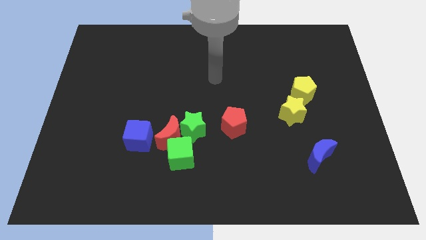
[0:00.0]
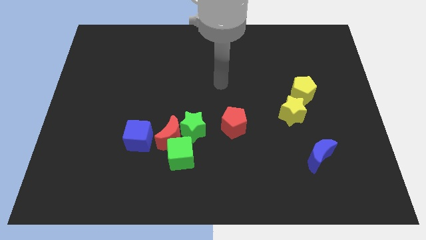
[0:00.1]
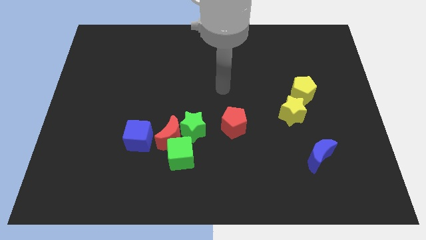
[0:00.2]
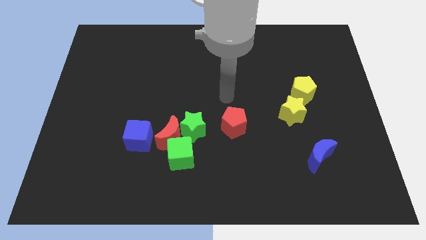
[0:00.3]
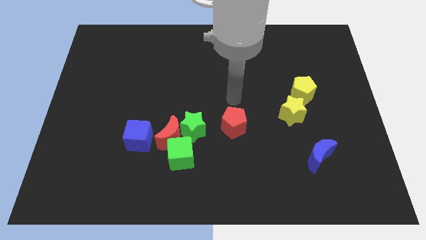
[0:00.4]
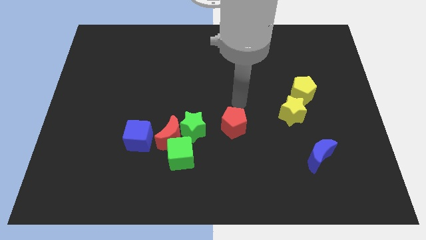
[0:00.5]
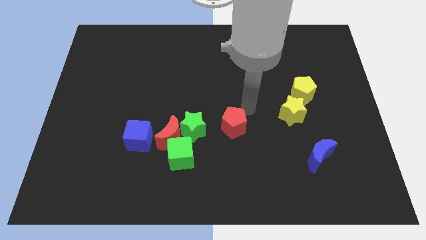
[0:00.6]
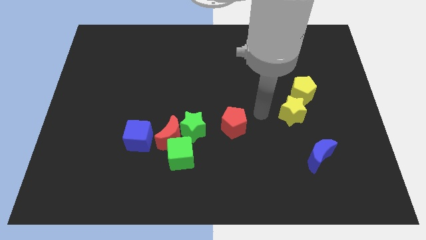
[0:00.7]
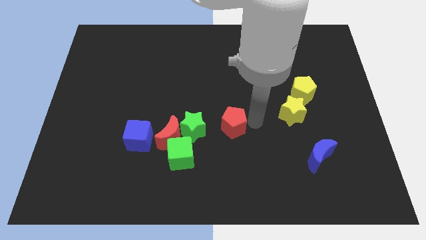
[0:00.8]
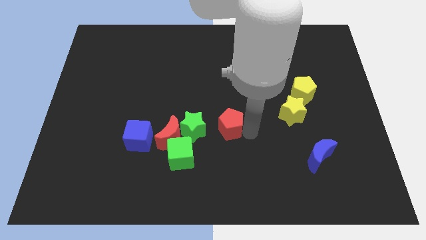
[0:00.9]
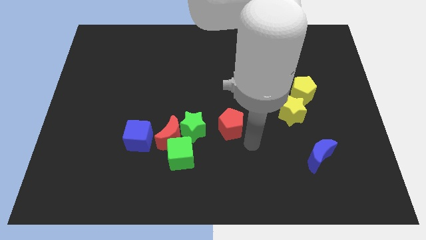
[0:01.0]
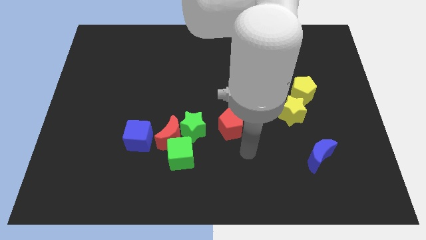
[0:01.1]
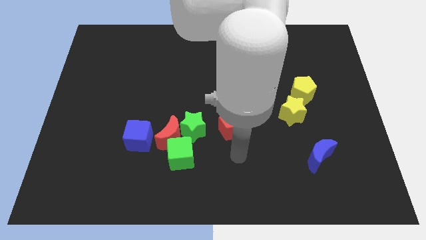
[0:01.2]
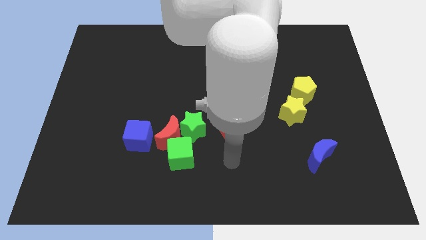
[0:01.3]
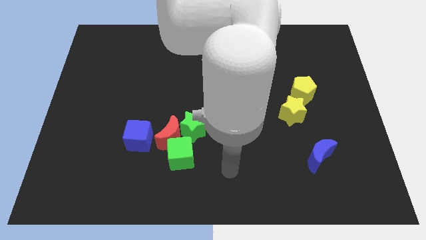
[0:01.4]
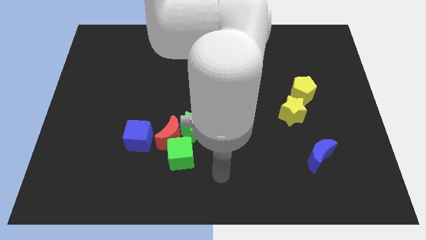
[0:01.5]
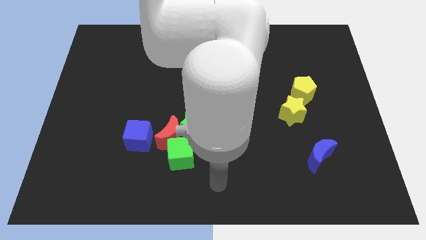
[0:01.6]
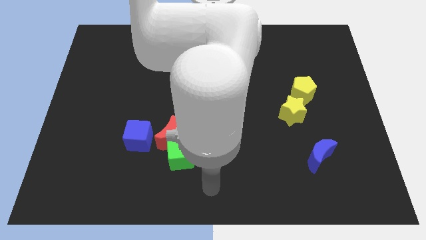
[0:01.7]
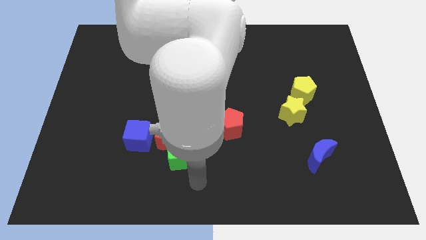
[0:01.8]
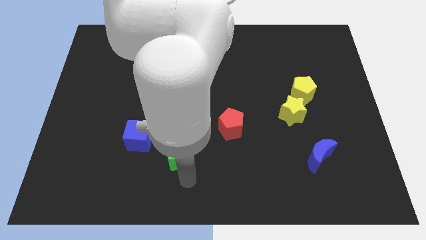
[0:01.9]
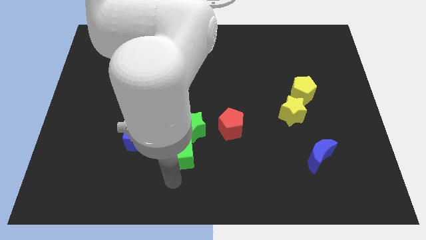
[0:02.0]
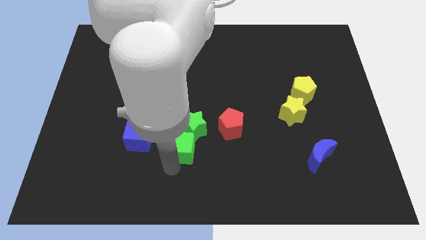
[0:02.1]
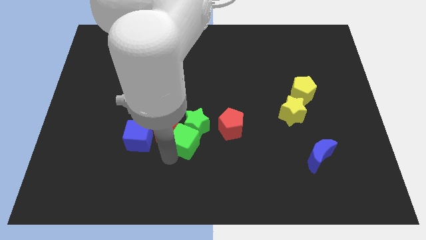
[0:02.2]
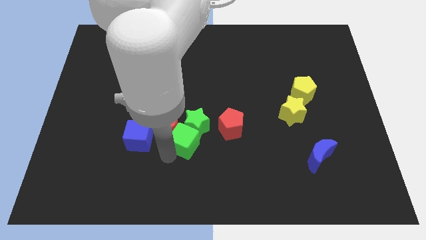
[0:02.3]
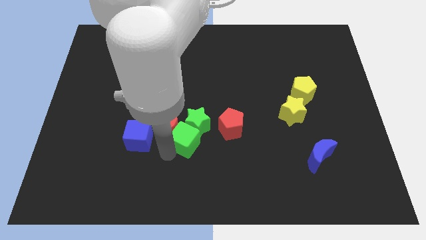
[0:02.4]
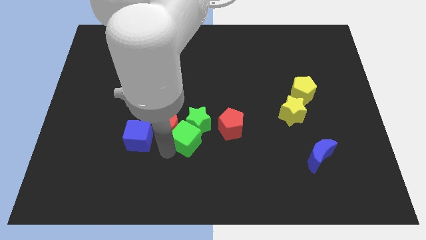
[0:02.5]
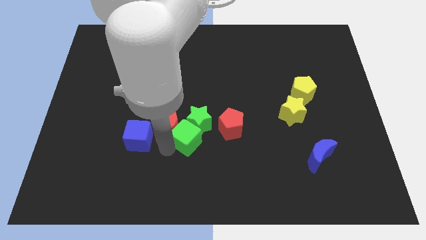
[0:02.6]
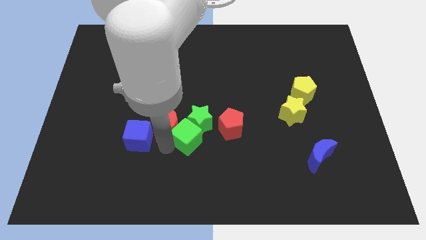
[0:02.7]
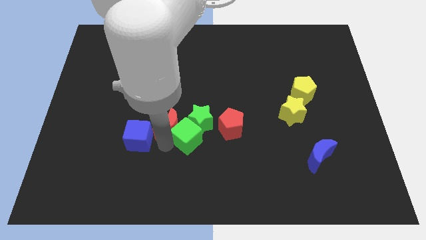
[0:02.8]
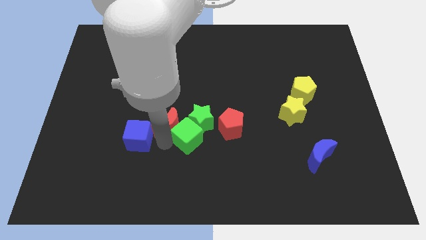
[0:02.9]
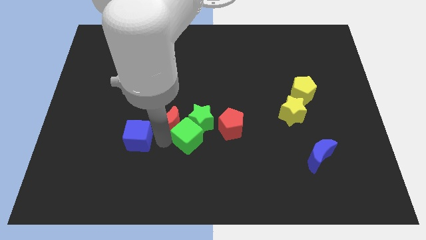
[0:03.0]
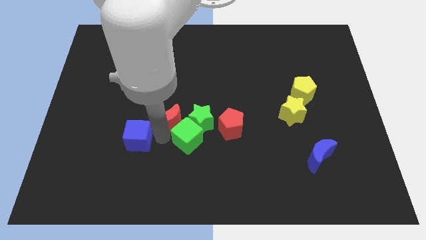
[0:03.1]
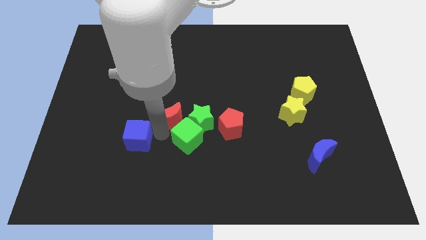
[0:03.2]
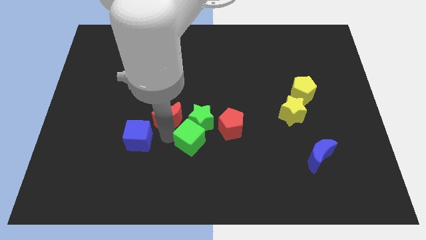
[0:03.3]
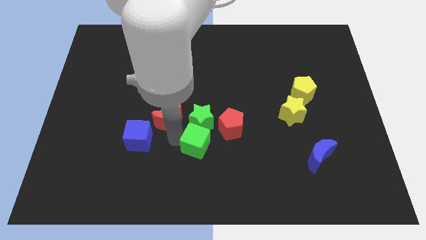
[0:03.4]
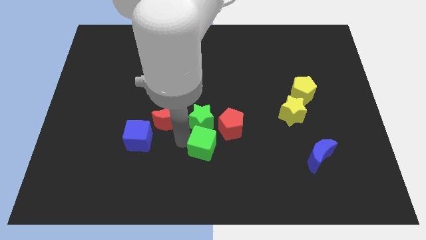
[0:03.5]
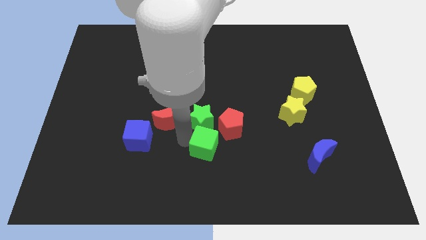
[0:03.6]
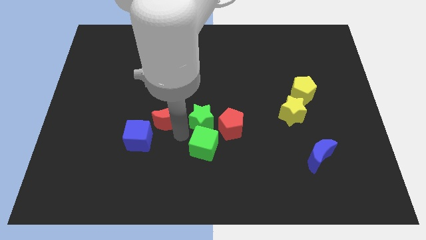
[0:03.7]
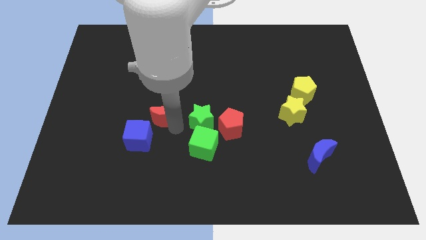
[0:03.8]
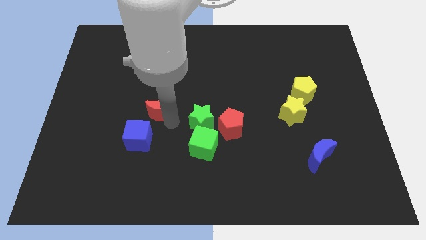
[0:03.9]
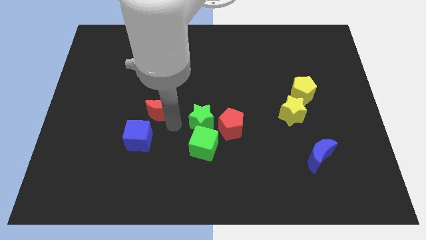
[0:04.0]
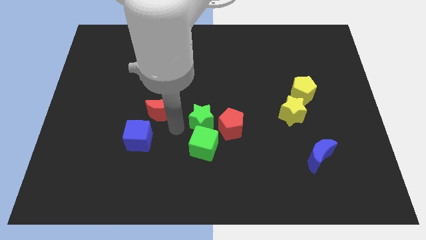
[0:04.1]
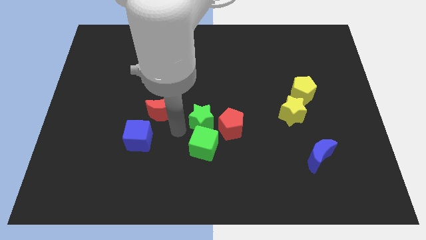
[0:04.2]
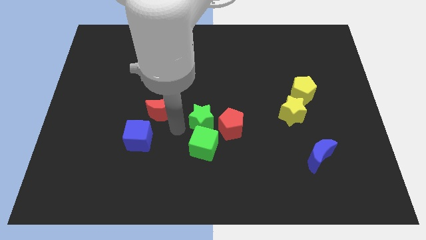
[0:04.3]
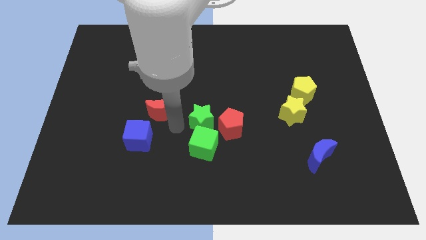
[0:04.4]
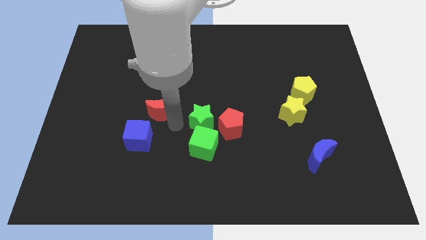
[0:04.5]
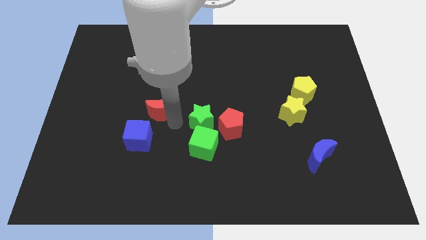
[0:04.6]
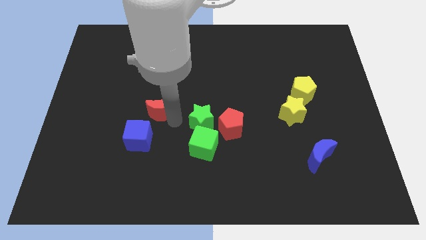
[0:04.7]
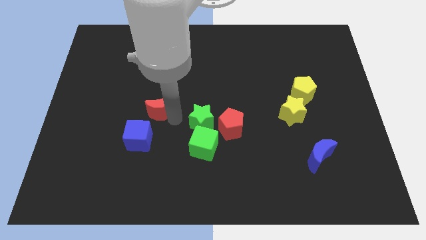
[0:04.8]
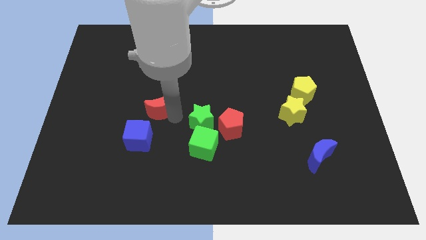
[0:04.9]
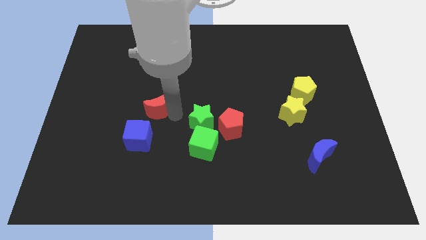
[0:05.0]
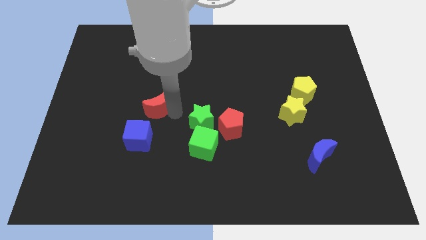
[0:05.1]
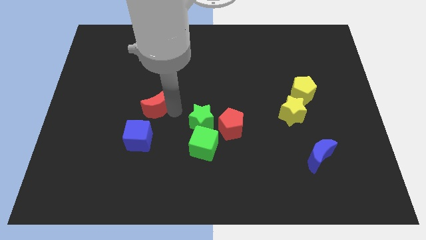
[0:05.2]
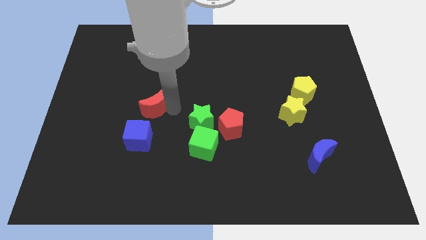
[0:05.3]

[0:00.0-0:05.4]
move the red moon away from the group of blocks

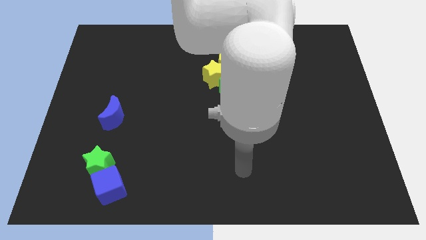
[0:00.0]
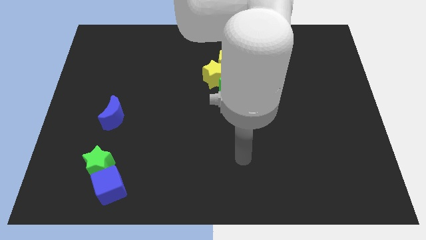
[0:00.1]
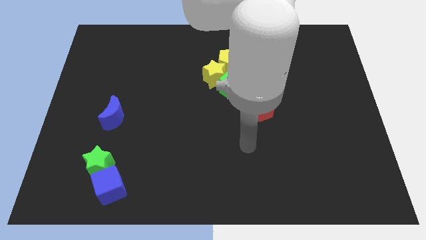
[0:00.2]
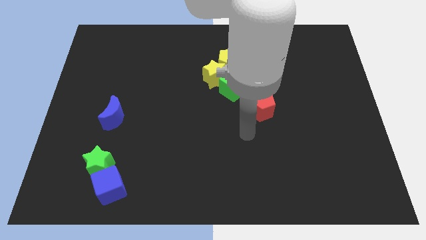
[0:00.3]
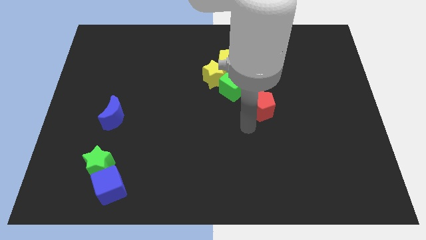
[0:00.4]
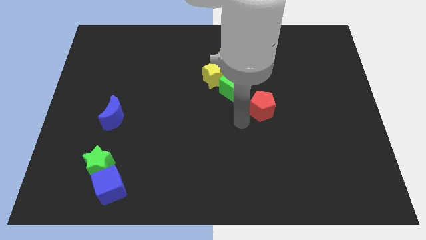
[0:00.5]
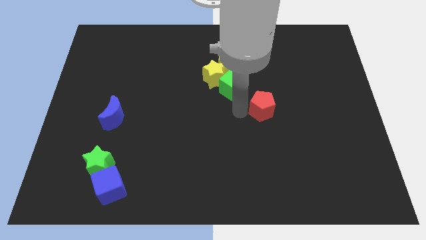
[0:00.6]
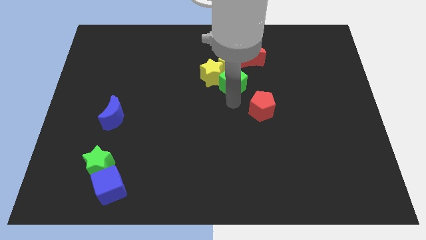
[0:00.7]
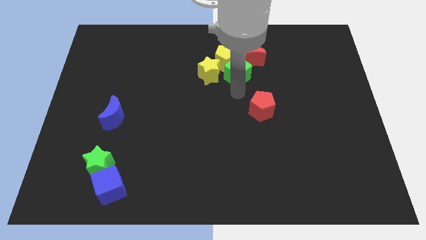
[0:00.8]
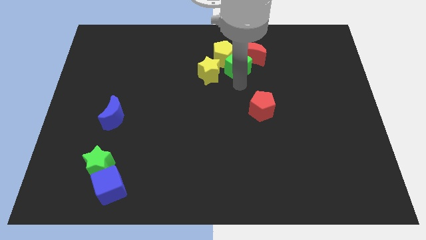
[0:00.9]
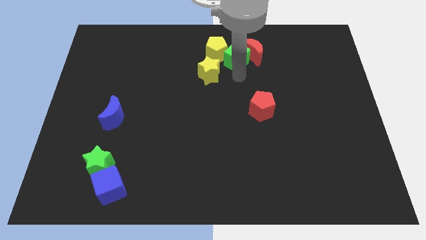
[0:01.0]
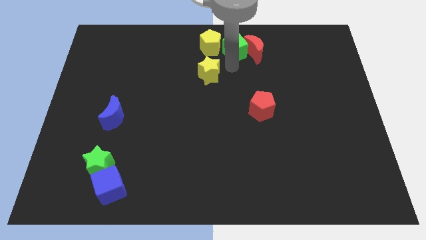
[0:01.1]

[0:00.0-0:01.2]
pull the yellow star apart from the green cube and yellow pentagon

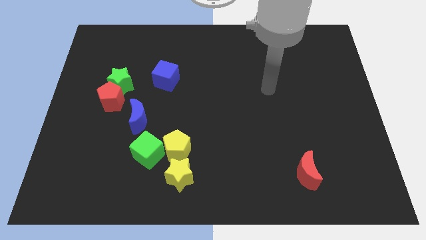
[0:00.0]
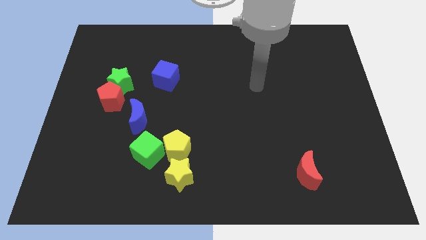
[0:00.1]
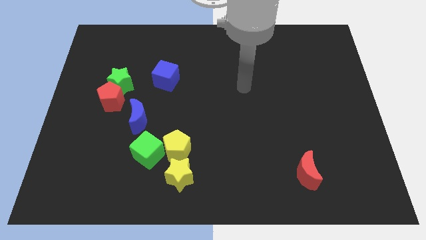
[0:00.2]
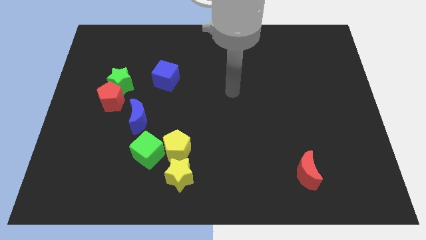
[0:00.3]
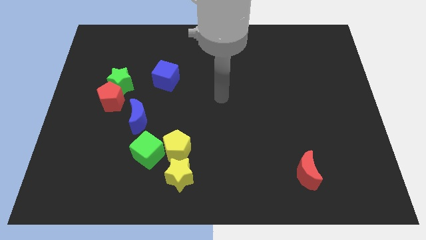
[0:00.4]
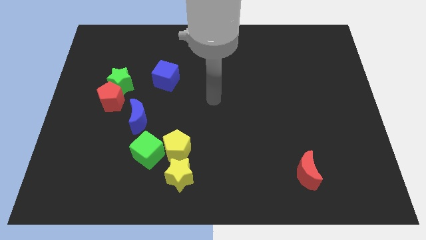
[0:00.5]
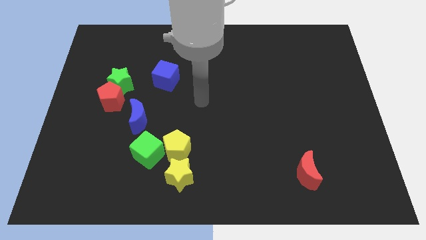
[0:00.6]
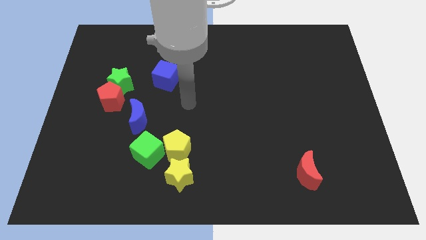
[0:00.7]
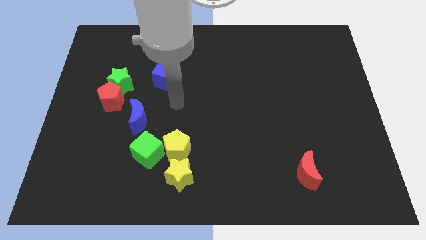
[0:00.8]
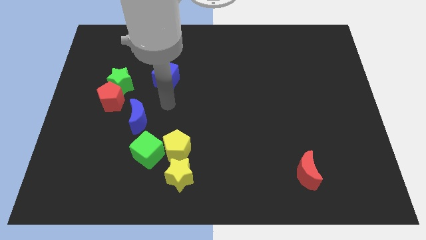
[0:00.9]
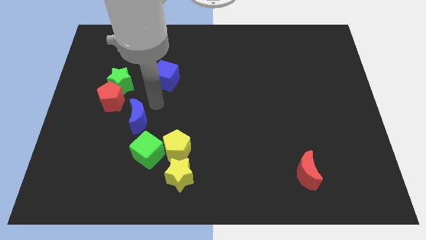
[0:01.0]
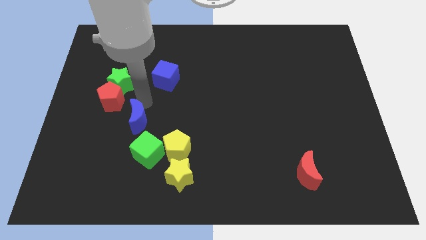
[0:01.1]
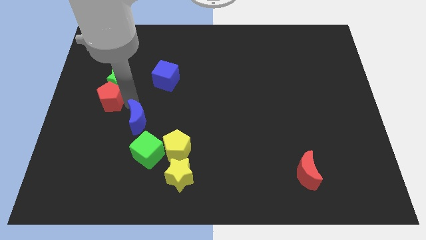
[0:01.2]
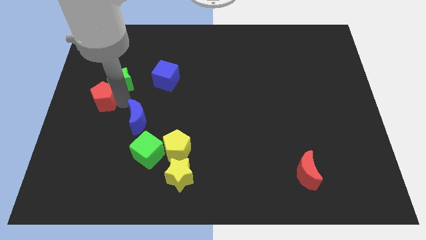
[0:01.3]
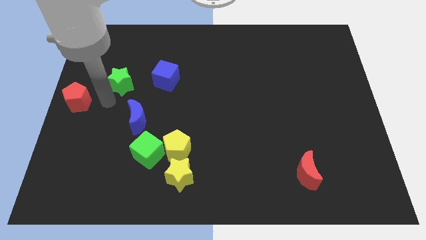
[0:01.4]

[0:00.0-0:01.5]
move the green star away from the red pentagon

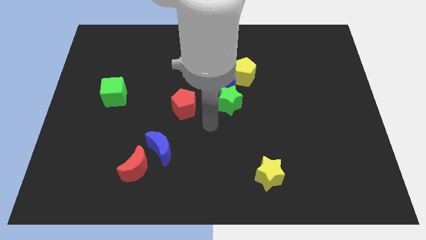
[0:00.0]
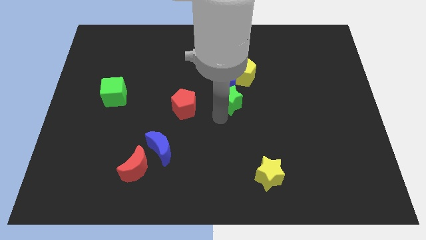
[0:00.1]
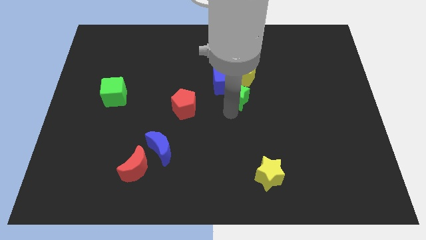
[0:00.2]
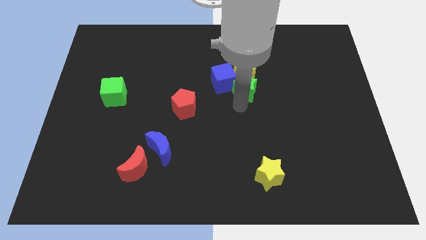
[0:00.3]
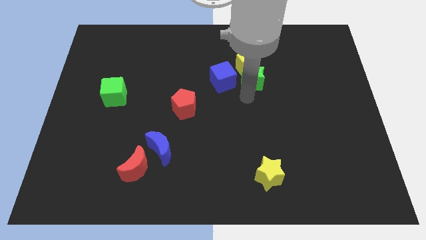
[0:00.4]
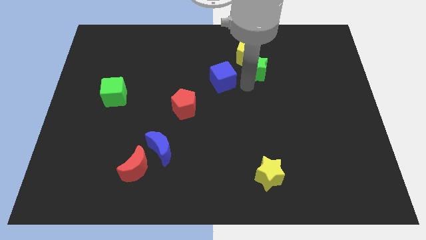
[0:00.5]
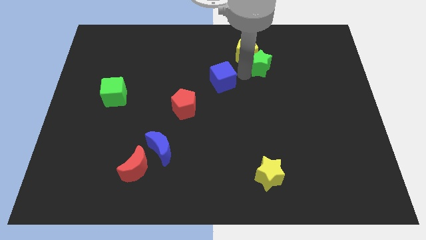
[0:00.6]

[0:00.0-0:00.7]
move the blue cube away from the yellow pentagon and green star

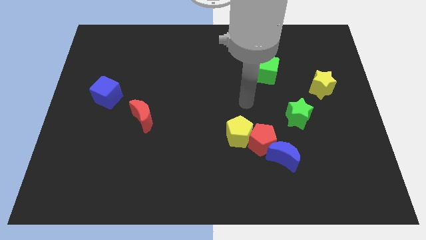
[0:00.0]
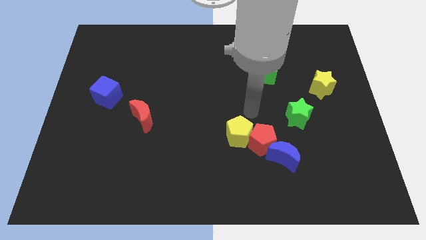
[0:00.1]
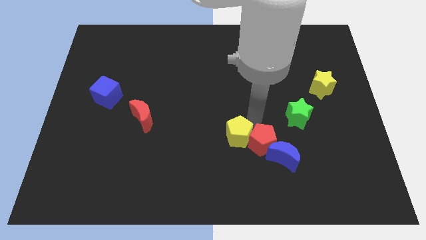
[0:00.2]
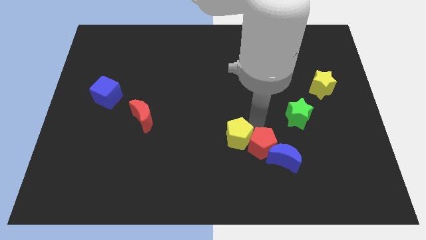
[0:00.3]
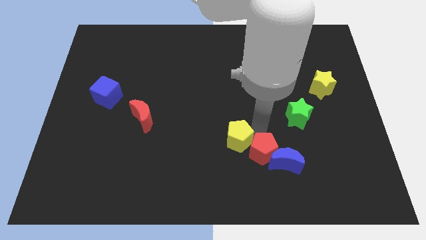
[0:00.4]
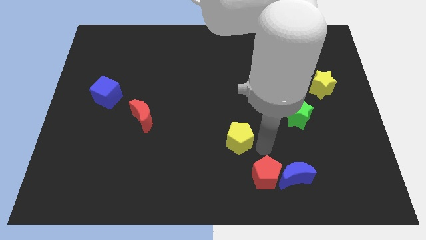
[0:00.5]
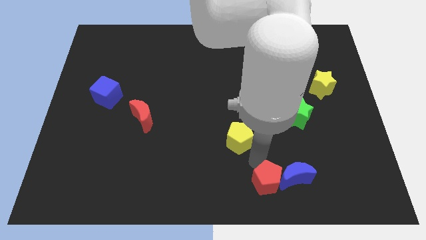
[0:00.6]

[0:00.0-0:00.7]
move the yellow pentagon away from the red pentagon
